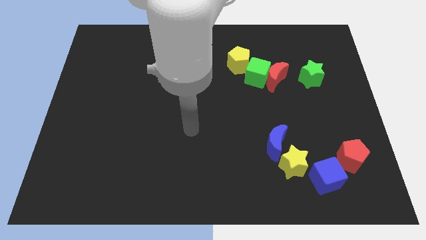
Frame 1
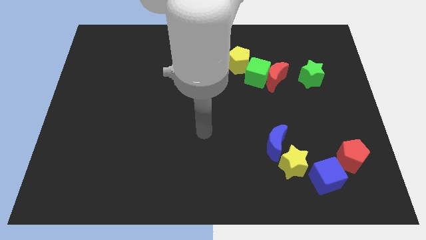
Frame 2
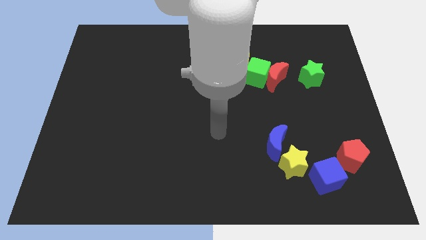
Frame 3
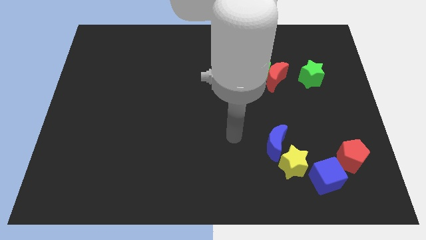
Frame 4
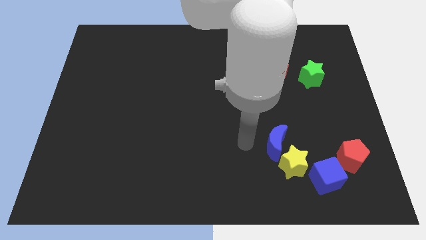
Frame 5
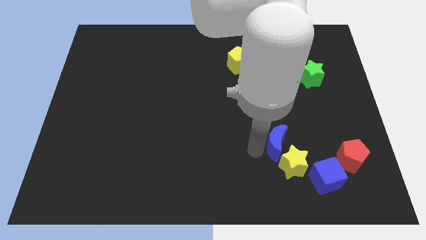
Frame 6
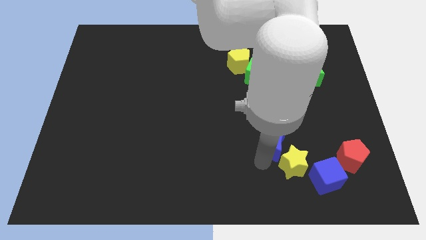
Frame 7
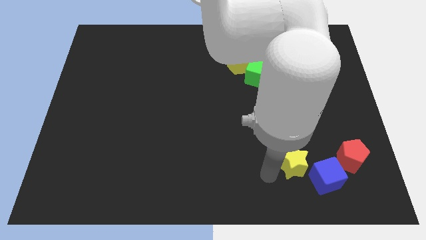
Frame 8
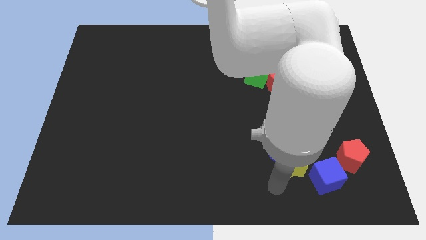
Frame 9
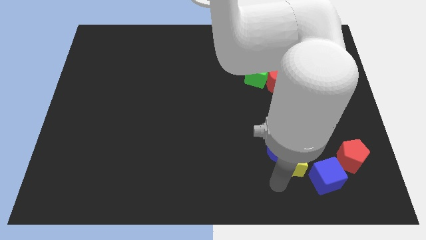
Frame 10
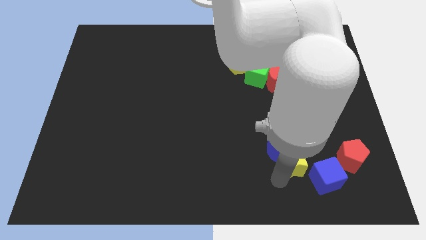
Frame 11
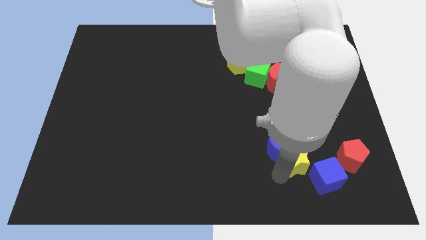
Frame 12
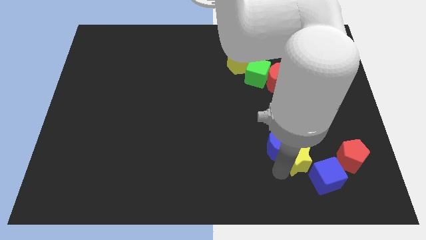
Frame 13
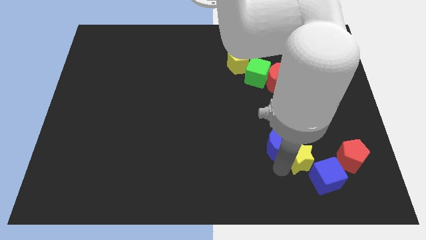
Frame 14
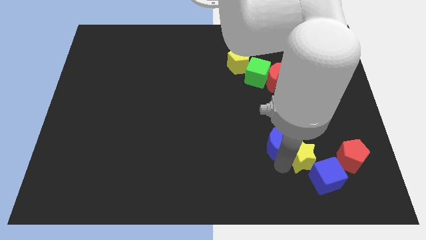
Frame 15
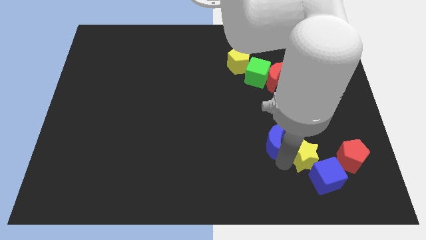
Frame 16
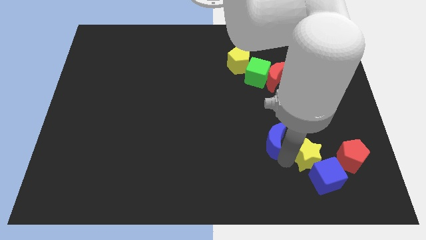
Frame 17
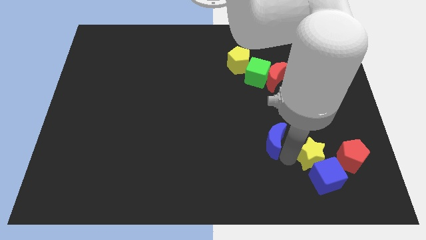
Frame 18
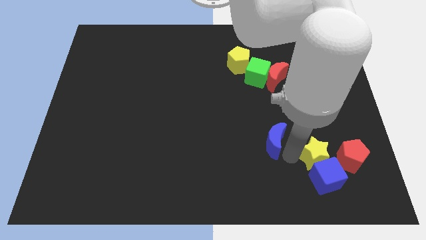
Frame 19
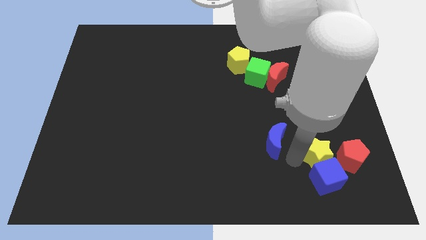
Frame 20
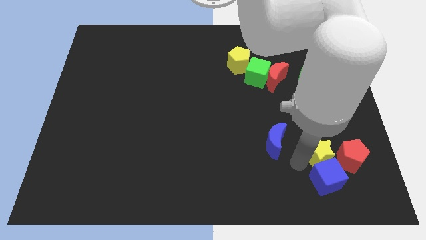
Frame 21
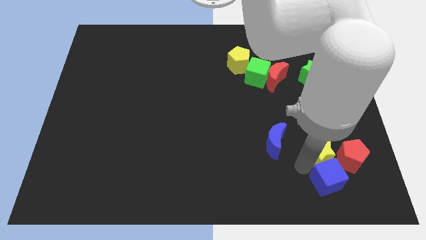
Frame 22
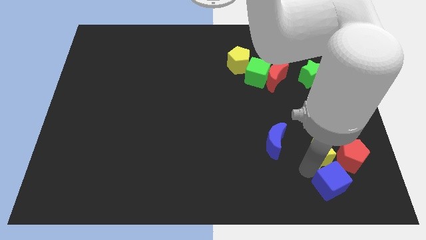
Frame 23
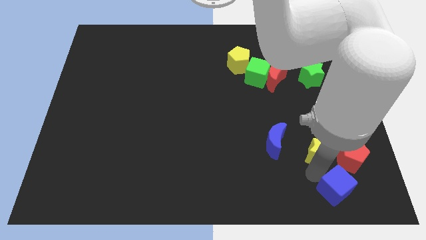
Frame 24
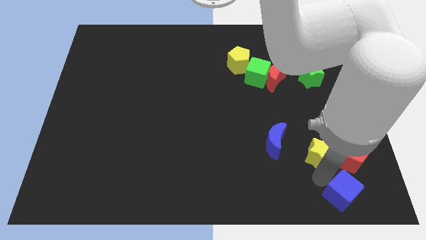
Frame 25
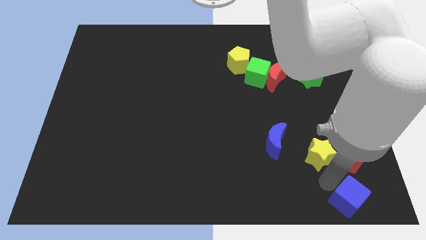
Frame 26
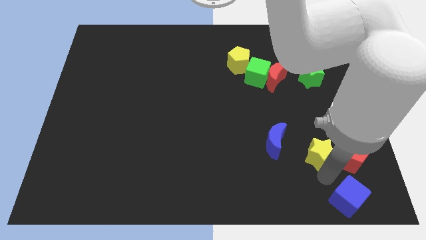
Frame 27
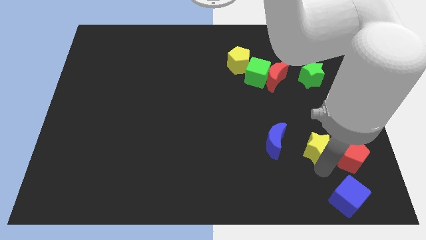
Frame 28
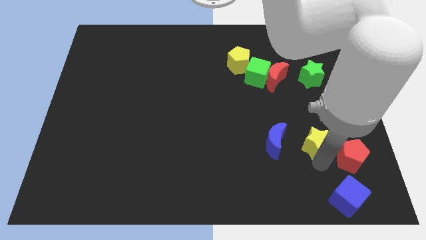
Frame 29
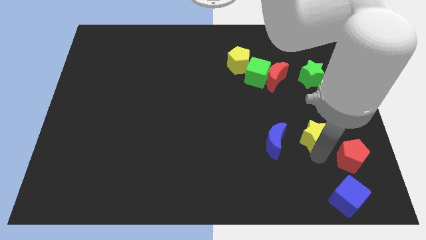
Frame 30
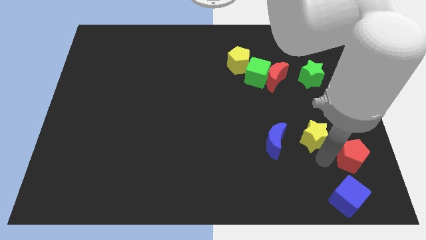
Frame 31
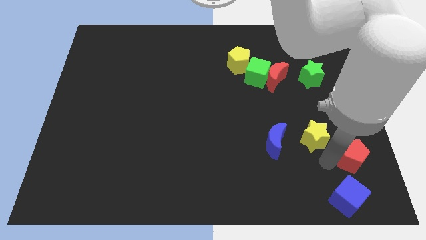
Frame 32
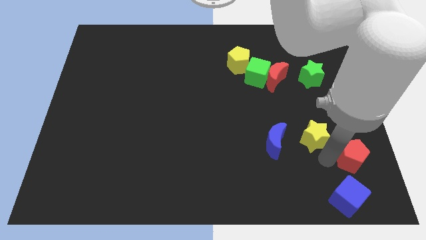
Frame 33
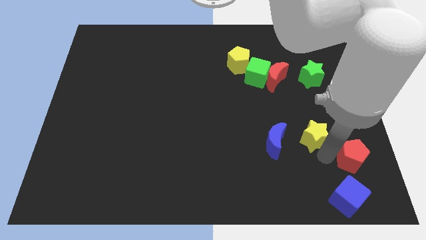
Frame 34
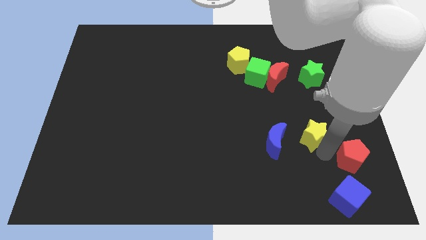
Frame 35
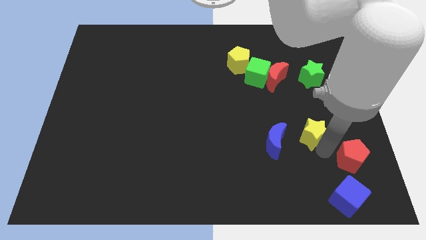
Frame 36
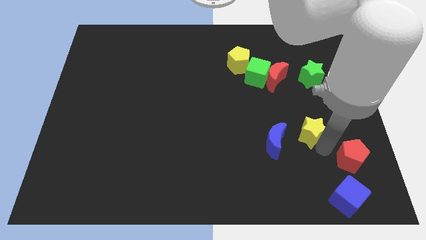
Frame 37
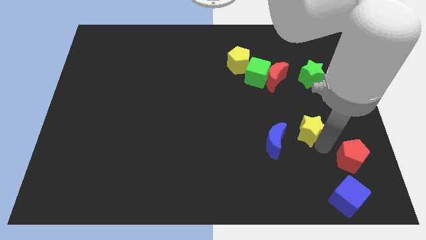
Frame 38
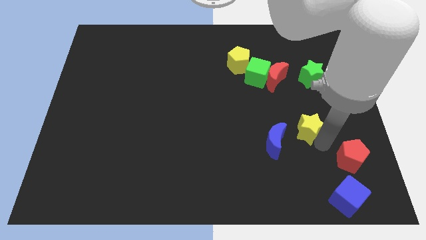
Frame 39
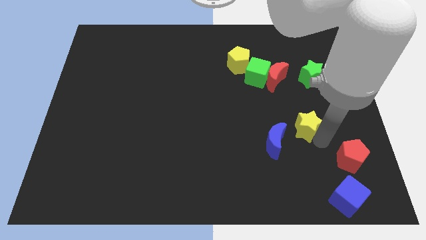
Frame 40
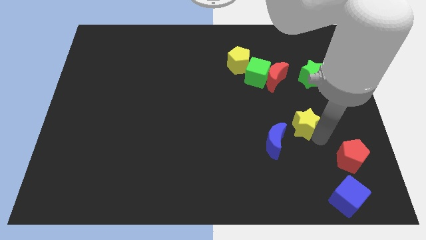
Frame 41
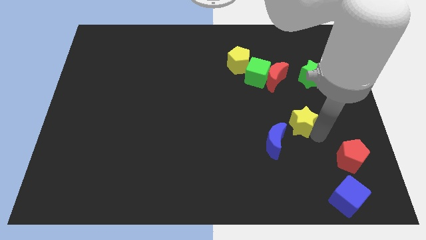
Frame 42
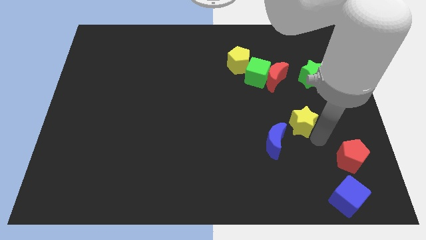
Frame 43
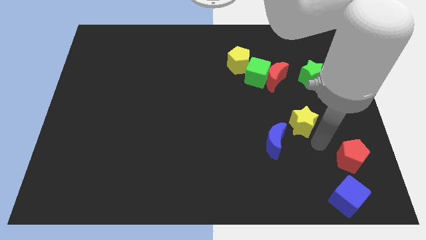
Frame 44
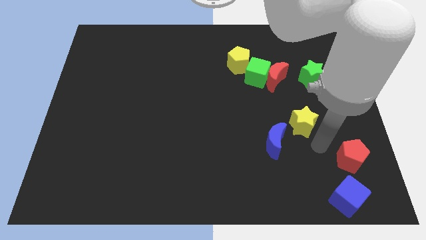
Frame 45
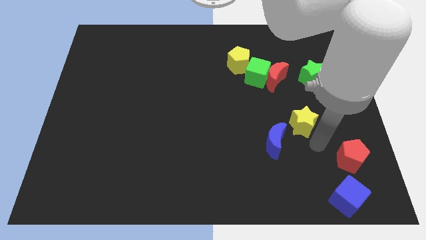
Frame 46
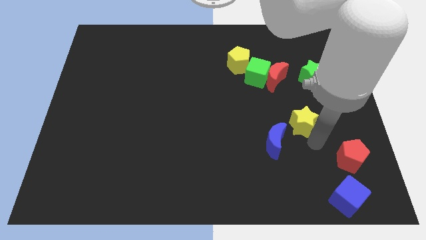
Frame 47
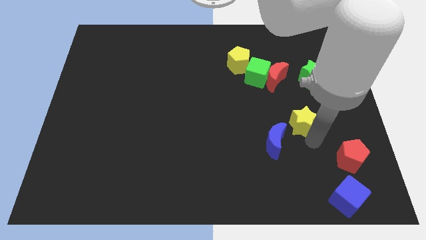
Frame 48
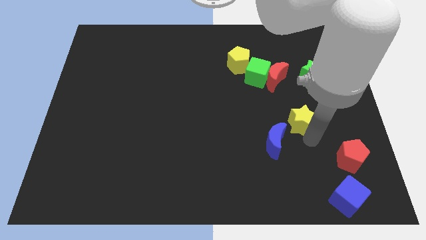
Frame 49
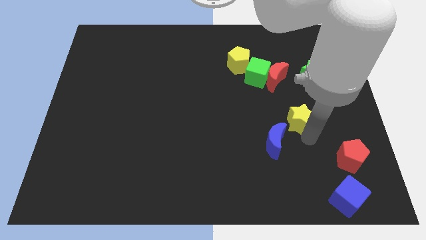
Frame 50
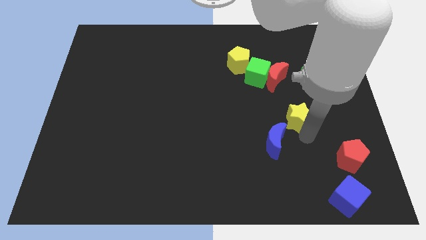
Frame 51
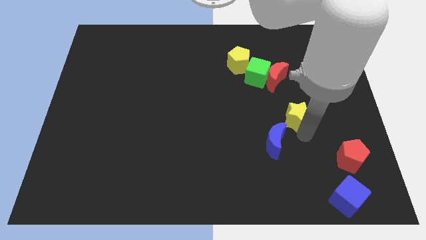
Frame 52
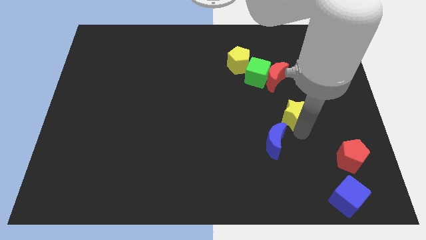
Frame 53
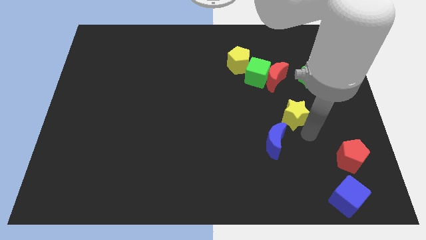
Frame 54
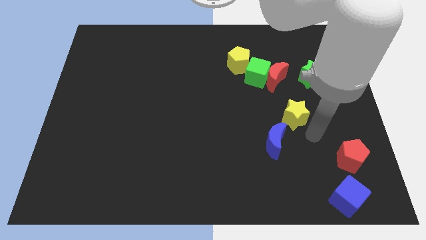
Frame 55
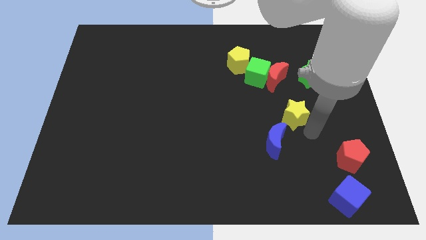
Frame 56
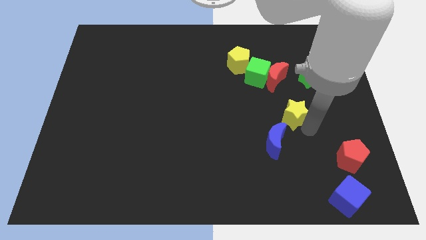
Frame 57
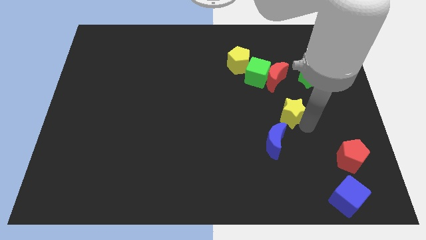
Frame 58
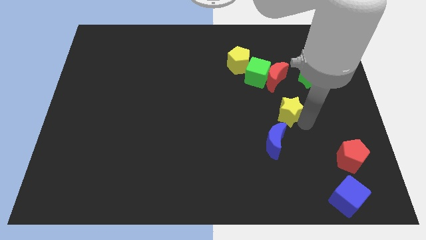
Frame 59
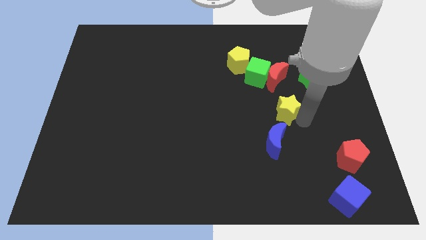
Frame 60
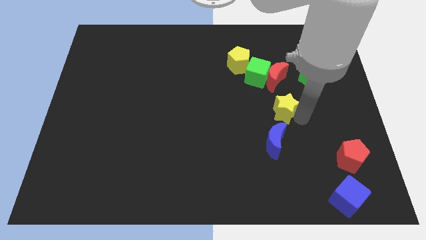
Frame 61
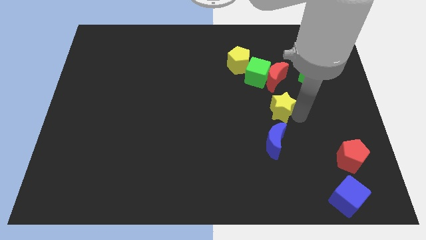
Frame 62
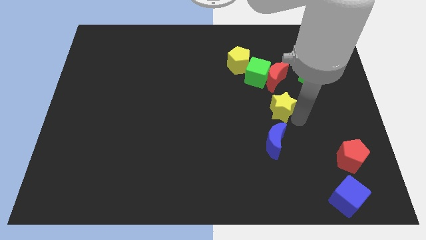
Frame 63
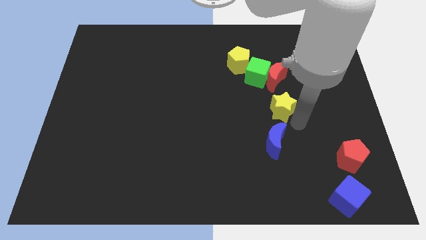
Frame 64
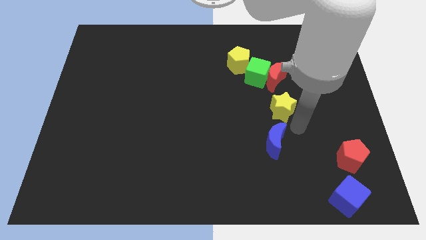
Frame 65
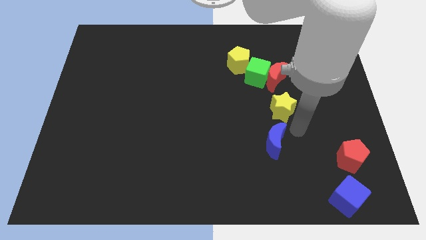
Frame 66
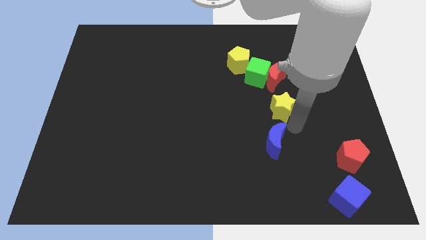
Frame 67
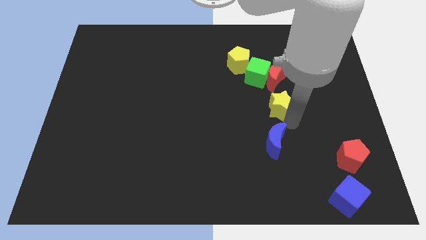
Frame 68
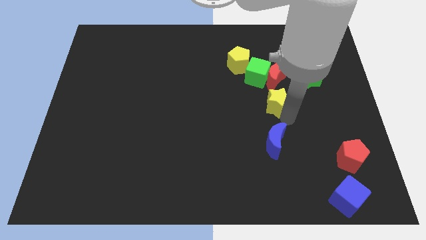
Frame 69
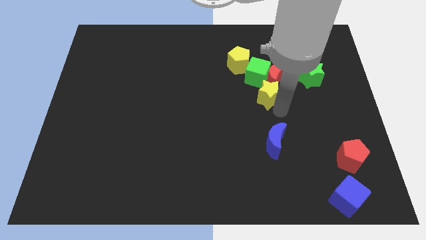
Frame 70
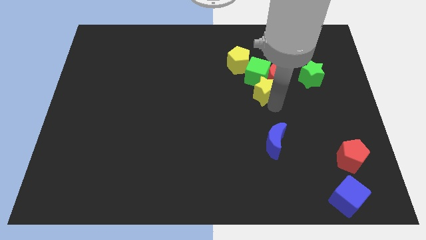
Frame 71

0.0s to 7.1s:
put the yellow star close to the green cube

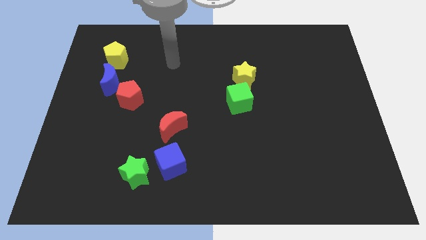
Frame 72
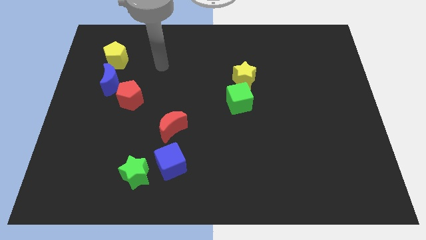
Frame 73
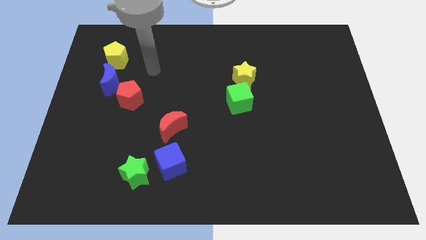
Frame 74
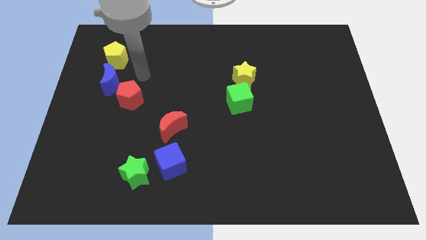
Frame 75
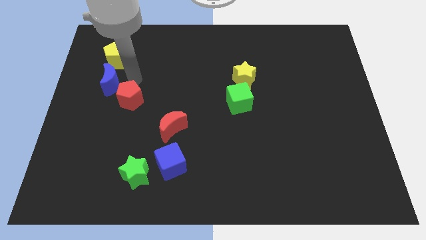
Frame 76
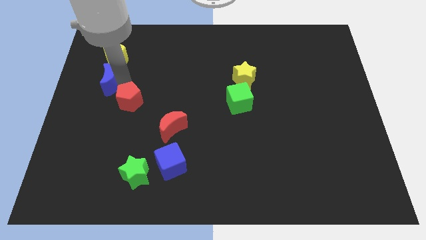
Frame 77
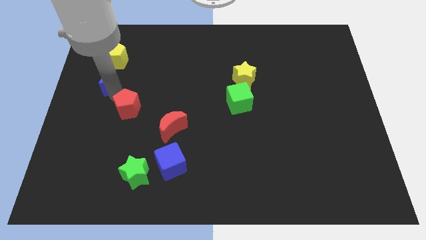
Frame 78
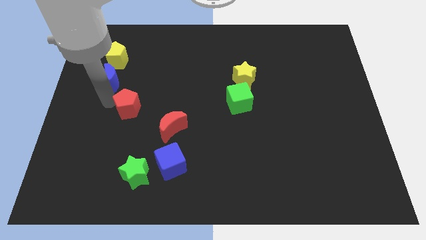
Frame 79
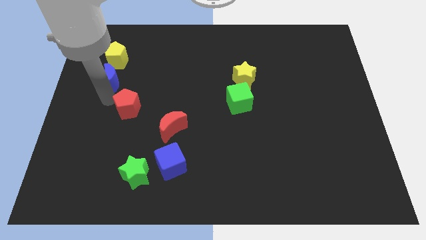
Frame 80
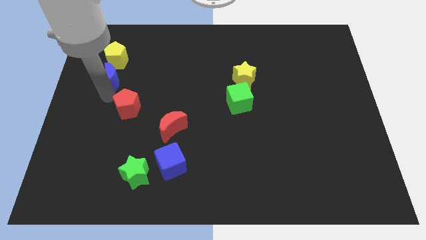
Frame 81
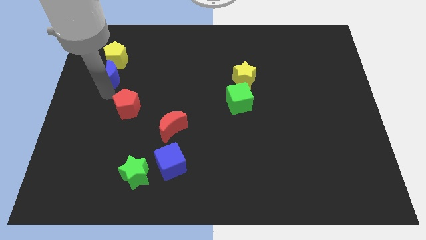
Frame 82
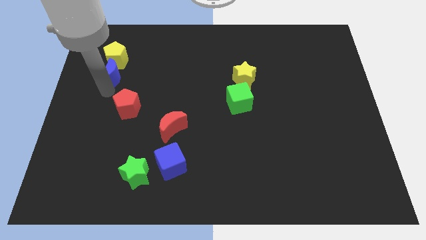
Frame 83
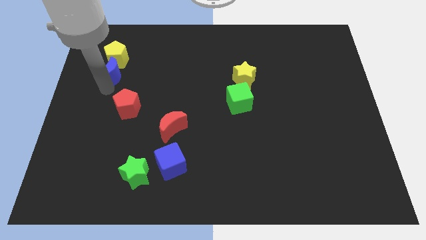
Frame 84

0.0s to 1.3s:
put the blue moon to the yellow pentagon
